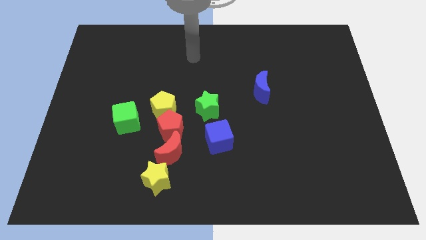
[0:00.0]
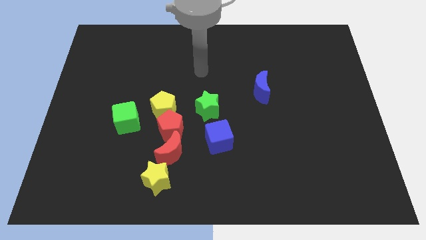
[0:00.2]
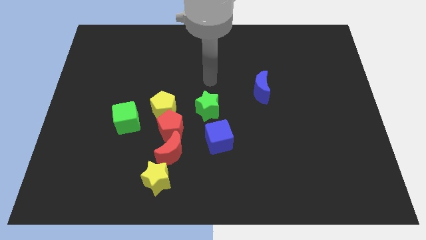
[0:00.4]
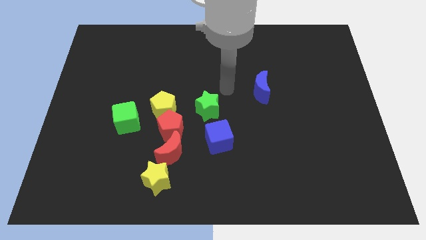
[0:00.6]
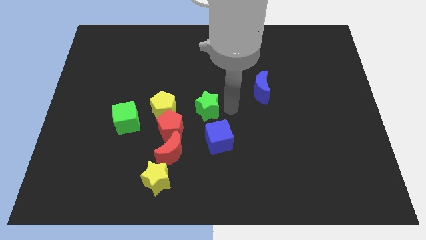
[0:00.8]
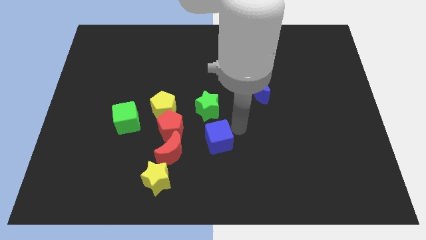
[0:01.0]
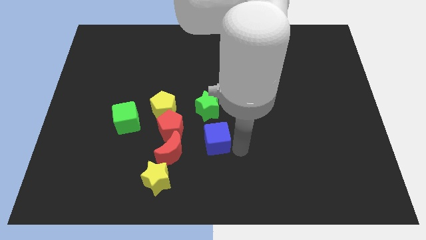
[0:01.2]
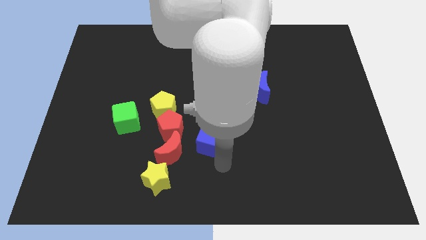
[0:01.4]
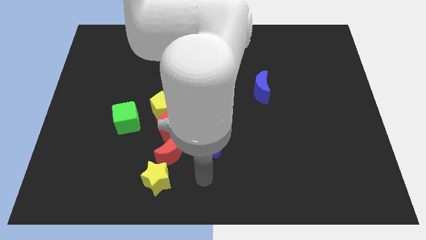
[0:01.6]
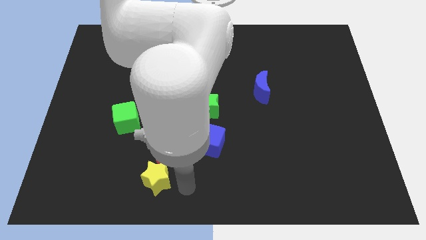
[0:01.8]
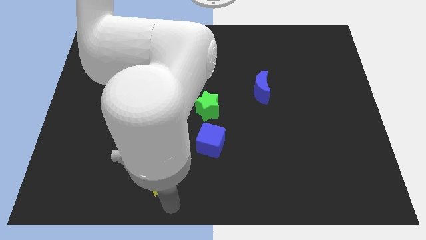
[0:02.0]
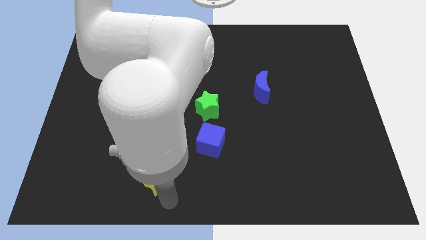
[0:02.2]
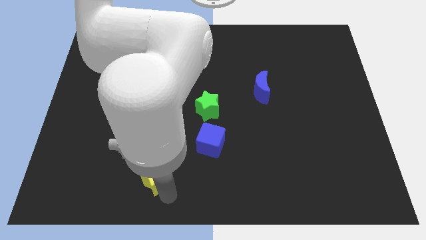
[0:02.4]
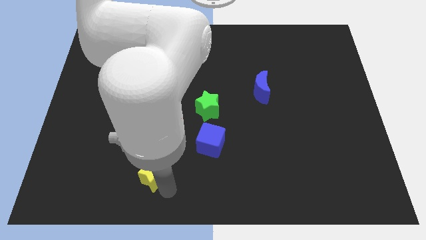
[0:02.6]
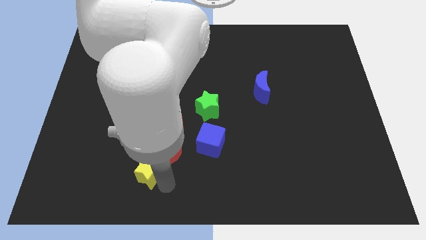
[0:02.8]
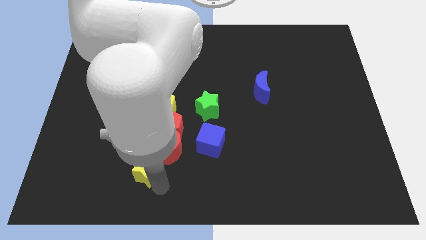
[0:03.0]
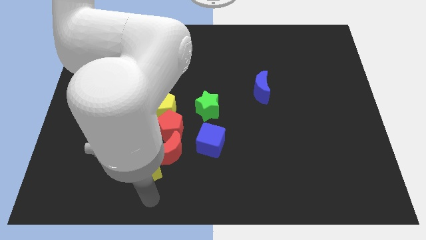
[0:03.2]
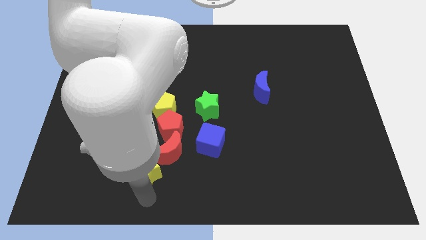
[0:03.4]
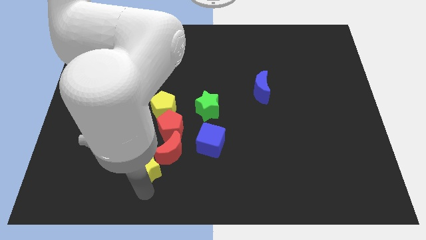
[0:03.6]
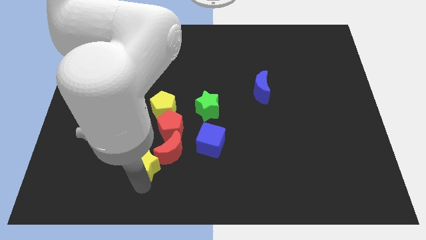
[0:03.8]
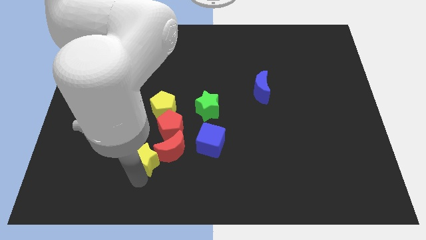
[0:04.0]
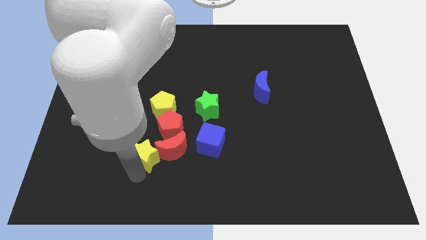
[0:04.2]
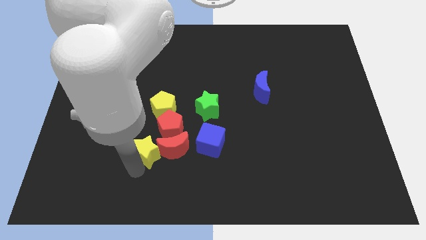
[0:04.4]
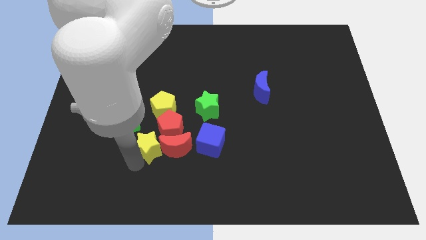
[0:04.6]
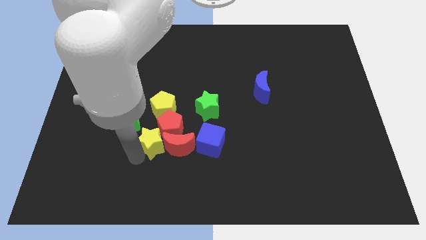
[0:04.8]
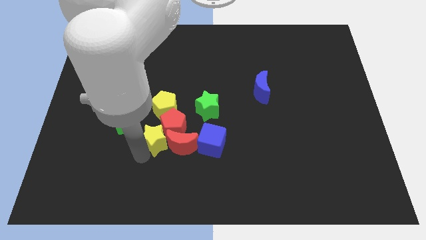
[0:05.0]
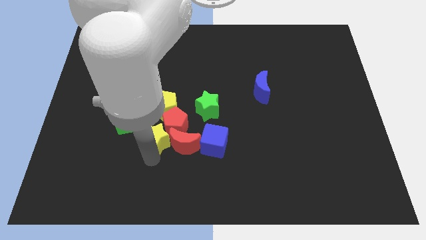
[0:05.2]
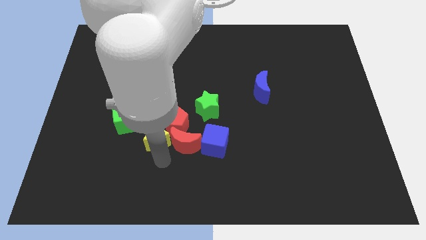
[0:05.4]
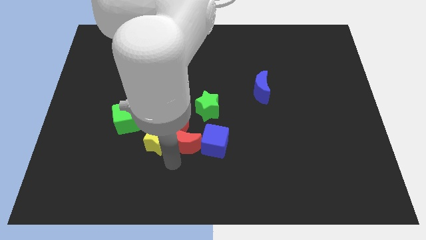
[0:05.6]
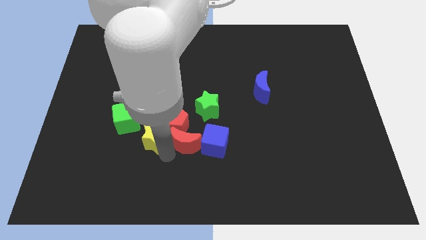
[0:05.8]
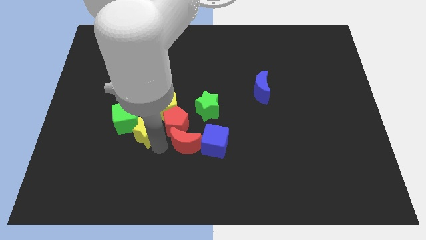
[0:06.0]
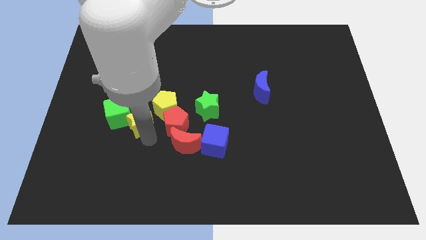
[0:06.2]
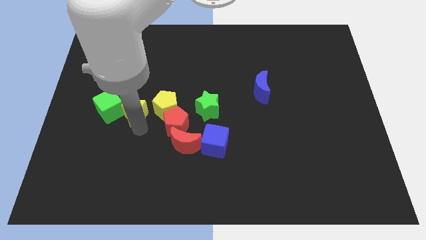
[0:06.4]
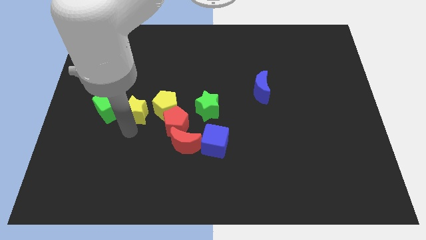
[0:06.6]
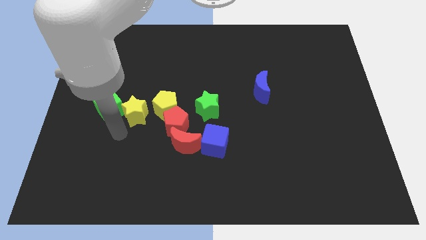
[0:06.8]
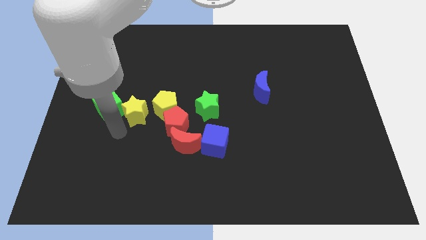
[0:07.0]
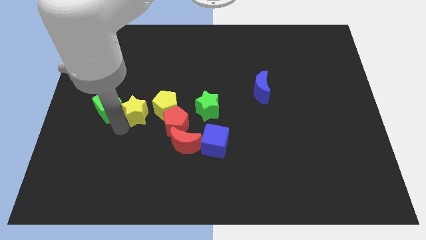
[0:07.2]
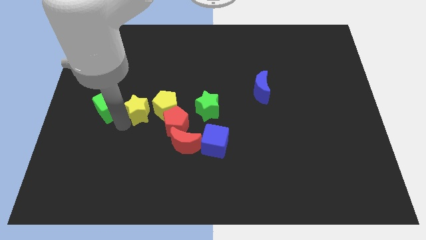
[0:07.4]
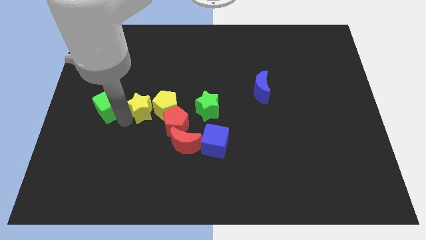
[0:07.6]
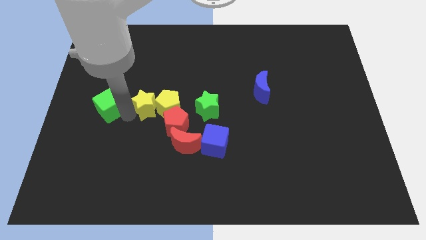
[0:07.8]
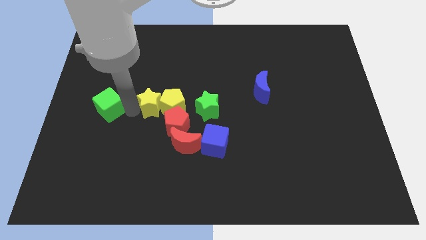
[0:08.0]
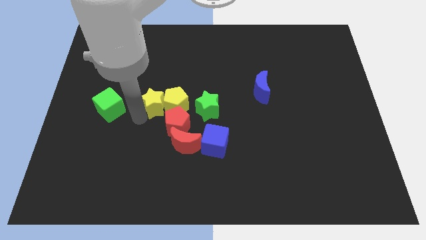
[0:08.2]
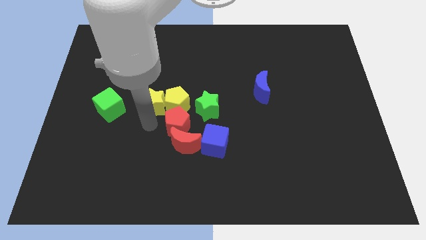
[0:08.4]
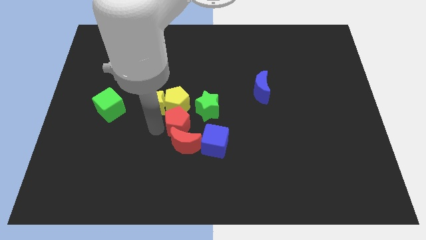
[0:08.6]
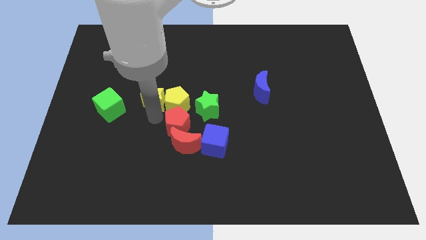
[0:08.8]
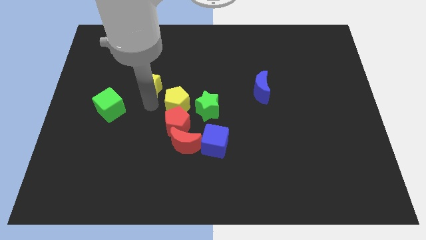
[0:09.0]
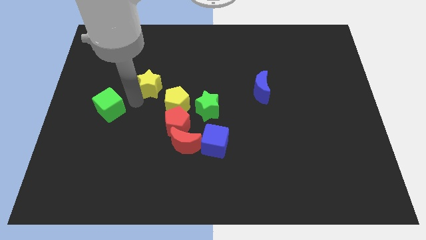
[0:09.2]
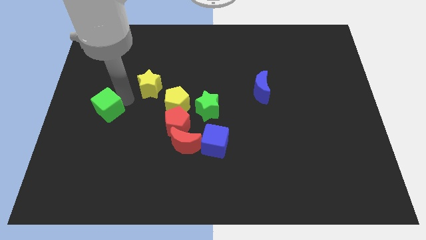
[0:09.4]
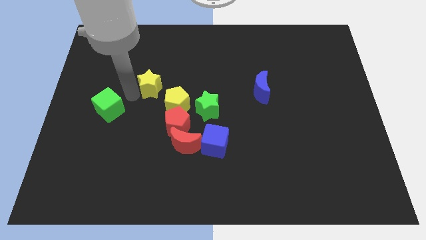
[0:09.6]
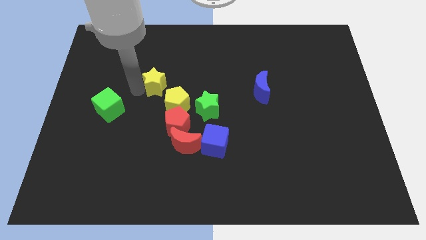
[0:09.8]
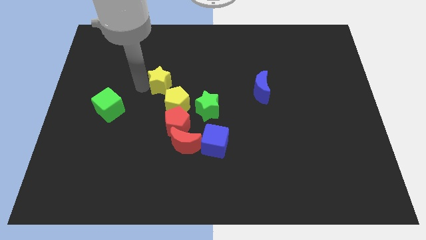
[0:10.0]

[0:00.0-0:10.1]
move the yellow star to the top of the yellow pentagon

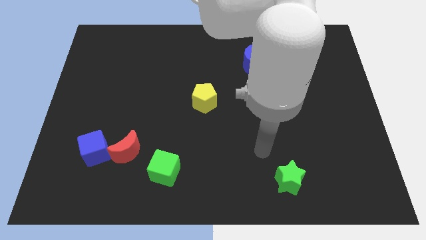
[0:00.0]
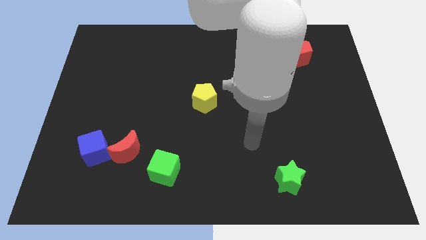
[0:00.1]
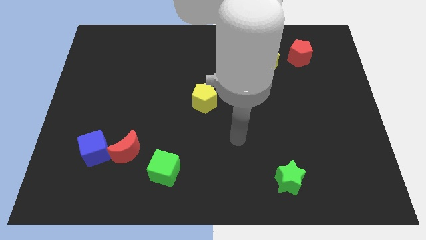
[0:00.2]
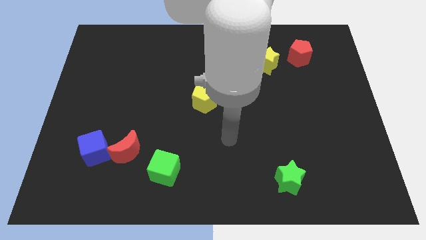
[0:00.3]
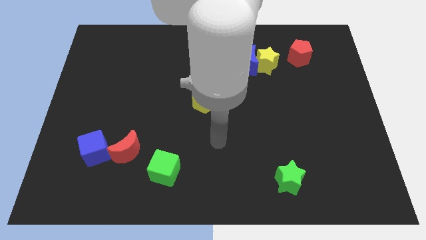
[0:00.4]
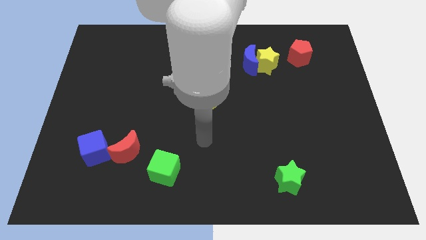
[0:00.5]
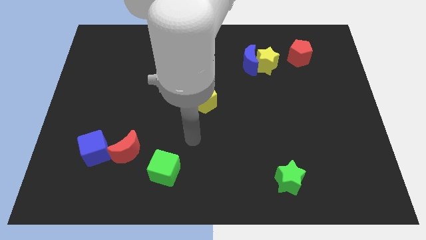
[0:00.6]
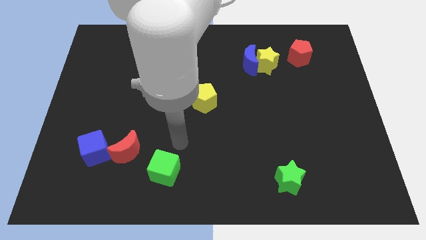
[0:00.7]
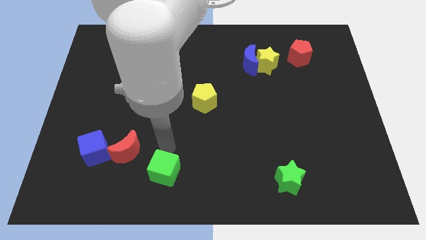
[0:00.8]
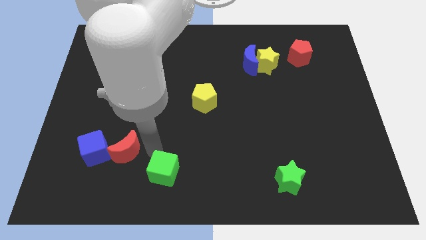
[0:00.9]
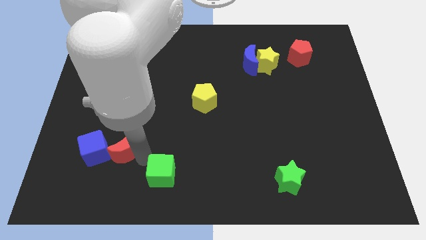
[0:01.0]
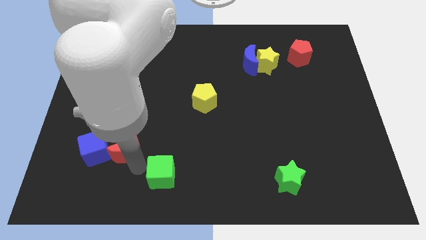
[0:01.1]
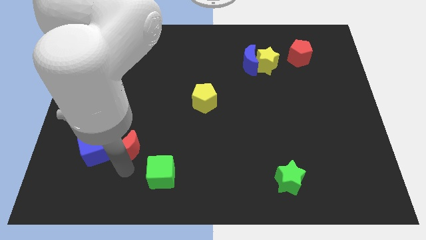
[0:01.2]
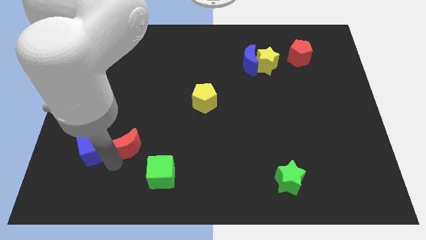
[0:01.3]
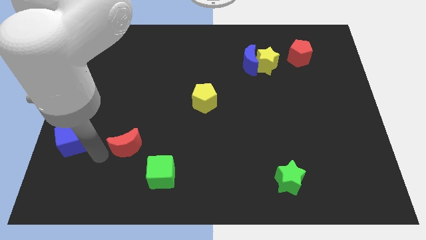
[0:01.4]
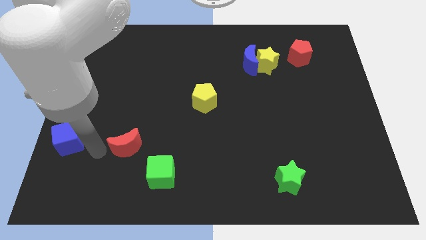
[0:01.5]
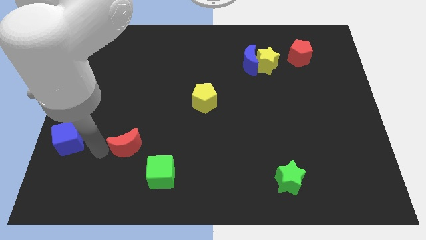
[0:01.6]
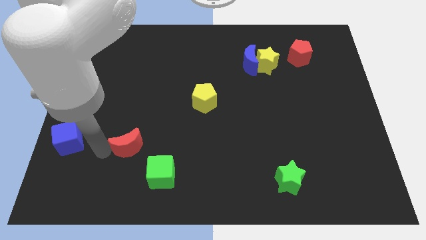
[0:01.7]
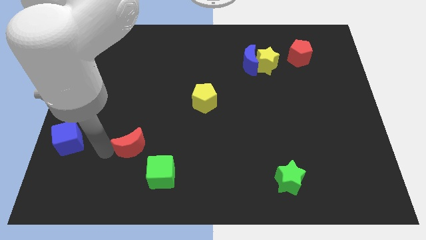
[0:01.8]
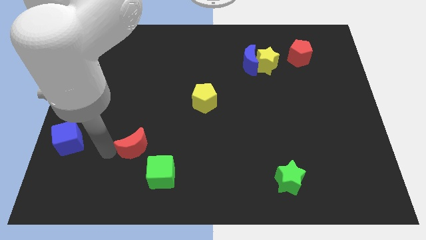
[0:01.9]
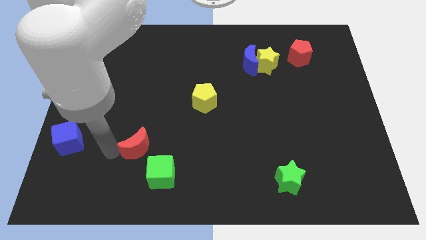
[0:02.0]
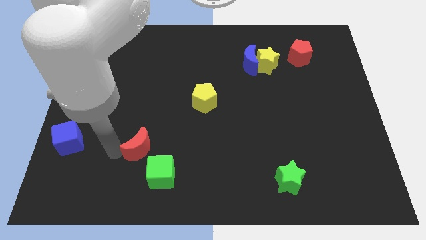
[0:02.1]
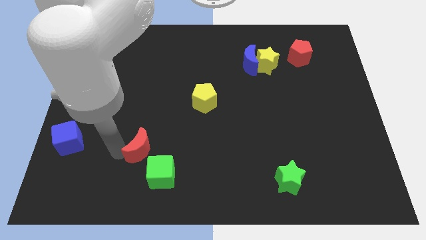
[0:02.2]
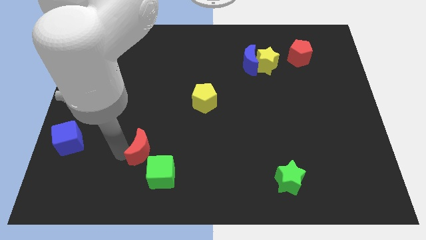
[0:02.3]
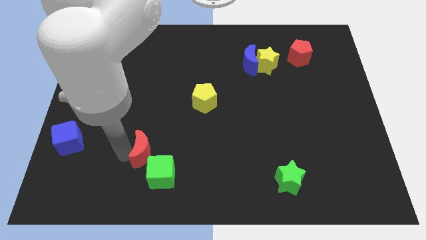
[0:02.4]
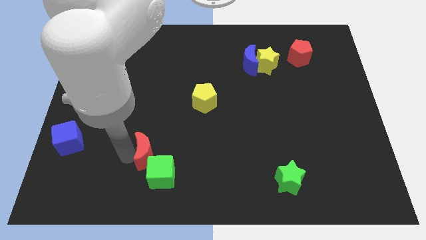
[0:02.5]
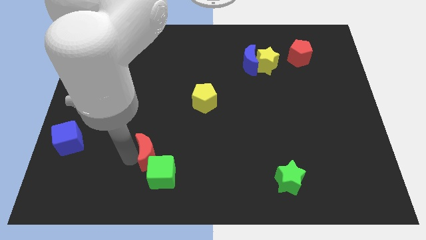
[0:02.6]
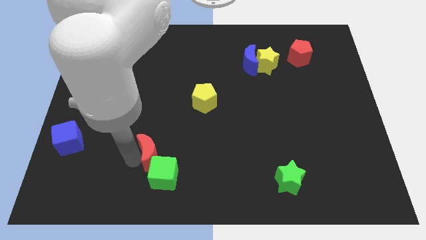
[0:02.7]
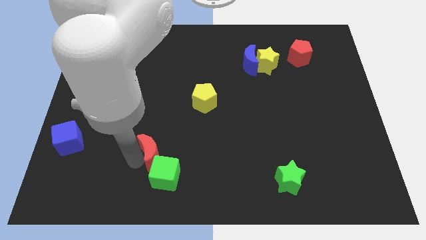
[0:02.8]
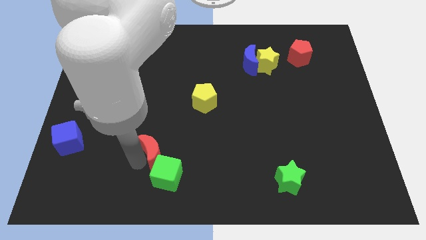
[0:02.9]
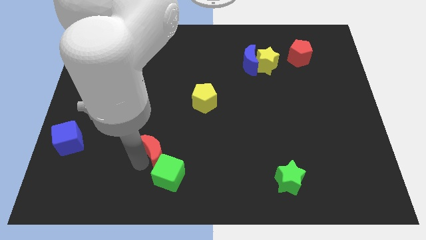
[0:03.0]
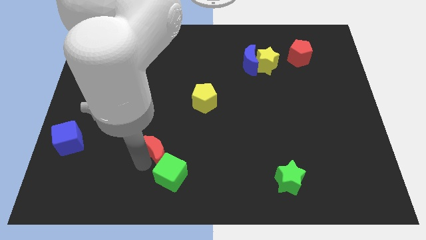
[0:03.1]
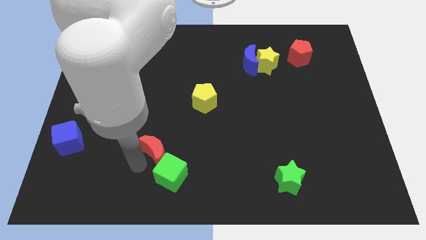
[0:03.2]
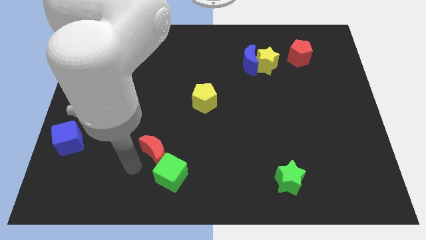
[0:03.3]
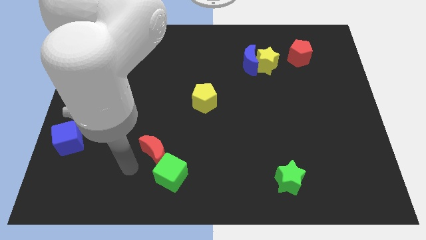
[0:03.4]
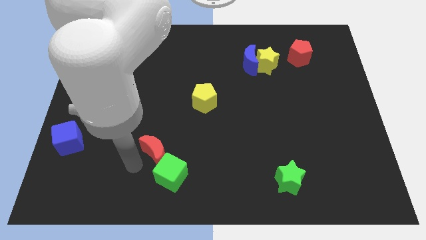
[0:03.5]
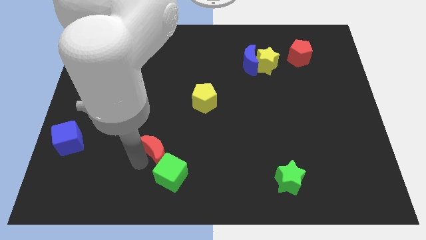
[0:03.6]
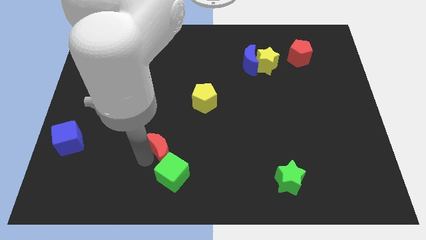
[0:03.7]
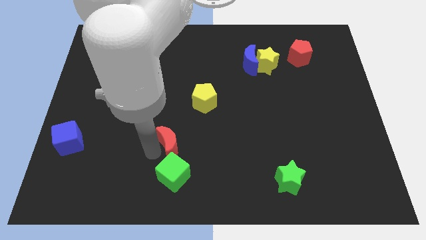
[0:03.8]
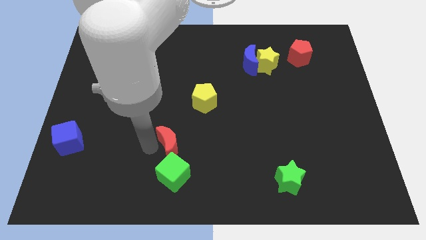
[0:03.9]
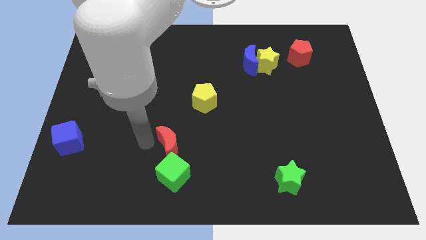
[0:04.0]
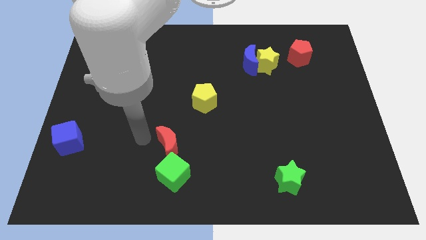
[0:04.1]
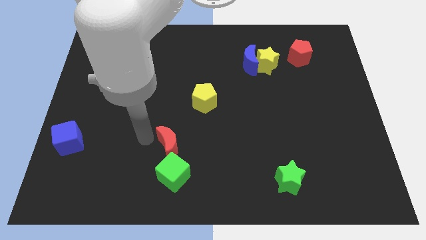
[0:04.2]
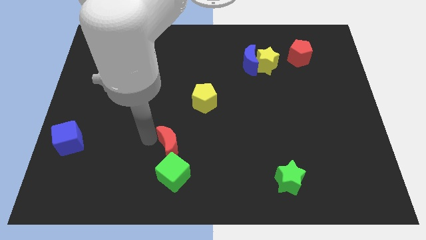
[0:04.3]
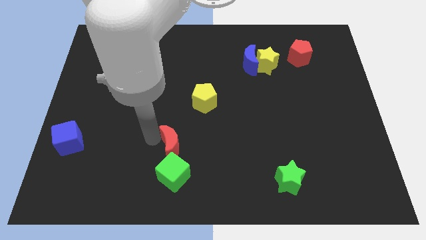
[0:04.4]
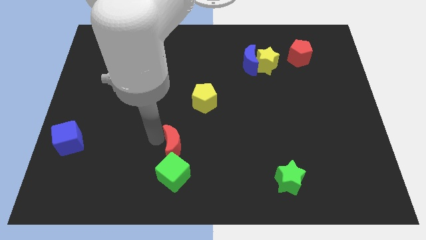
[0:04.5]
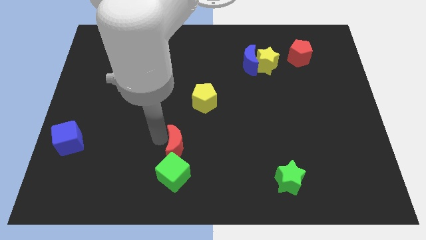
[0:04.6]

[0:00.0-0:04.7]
move the red moon diagonally up and to the right of the green cube
